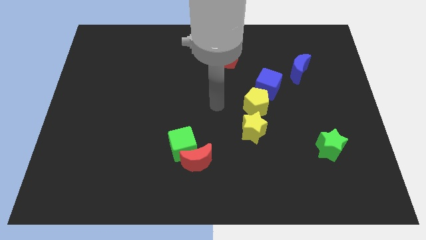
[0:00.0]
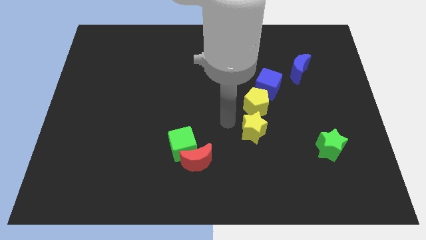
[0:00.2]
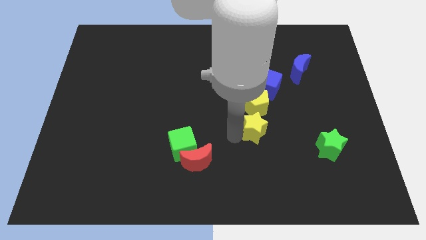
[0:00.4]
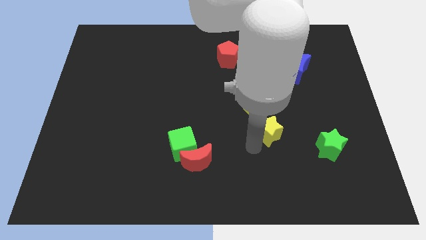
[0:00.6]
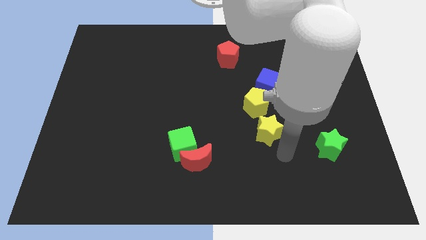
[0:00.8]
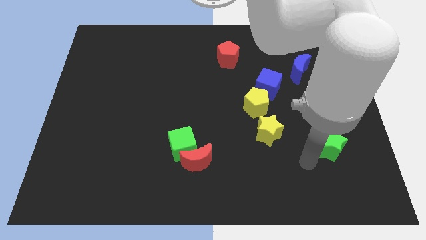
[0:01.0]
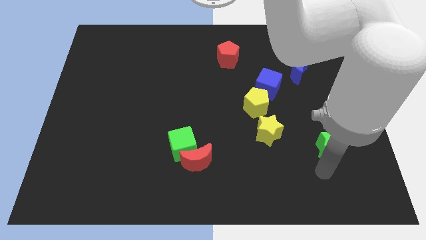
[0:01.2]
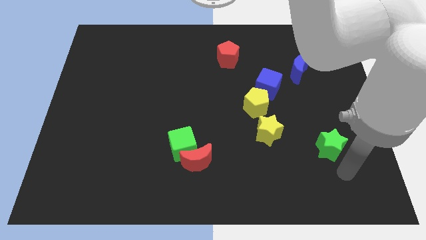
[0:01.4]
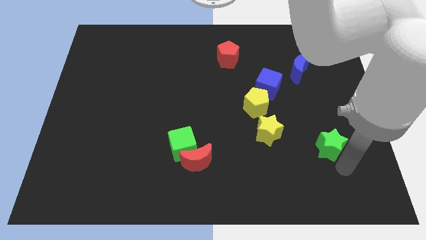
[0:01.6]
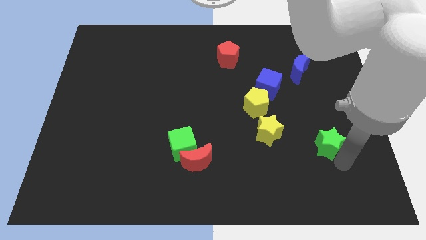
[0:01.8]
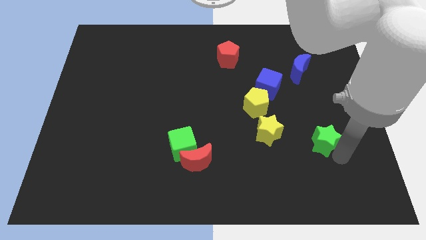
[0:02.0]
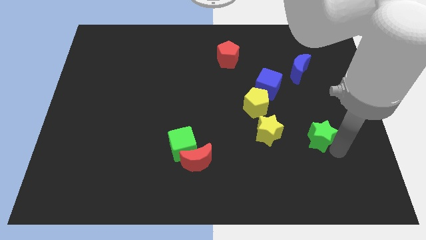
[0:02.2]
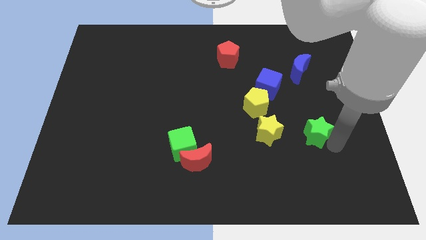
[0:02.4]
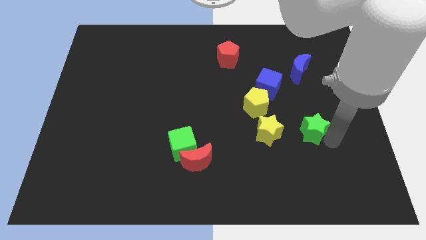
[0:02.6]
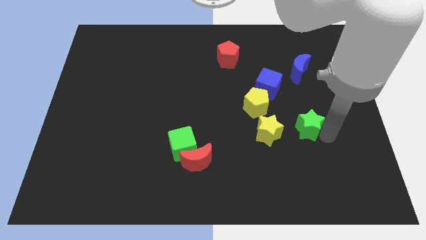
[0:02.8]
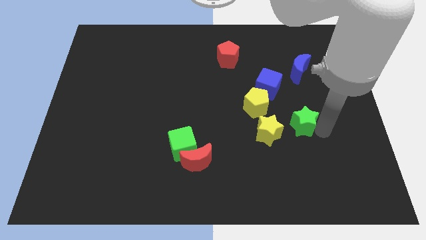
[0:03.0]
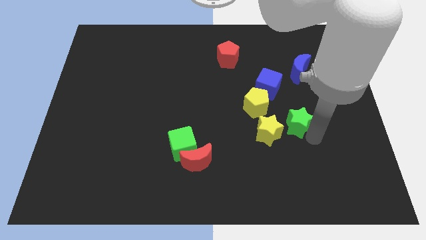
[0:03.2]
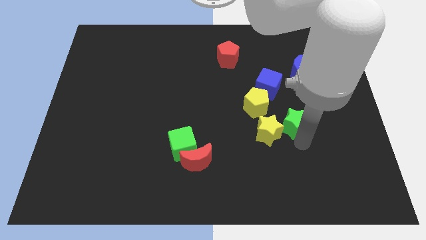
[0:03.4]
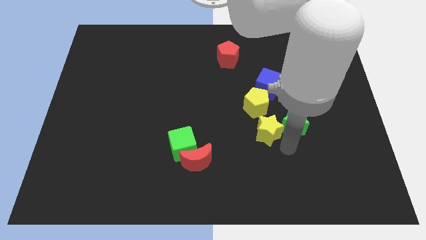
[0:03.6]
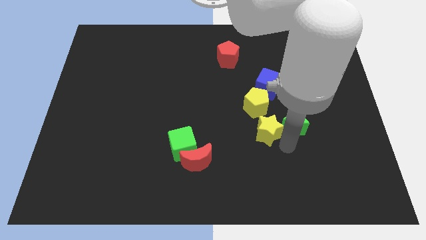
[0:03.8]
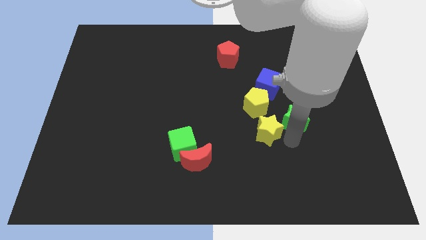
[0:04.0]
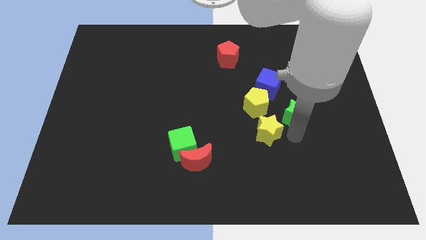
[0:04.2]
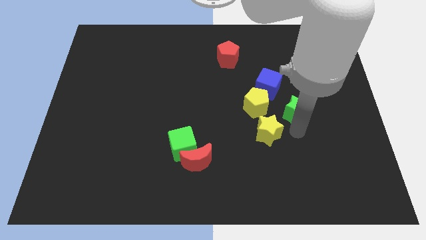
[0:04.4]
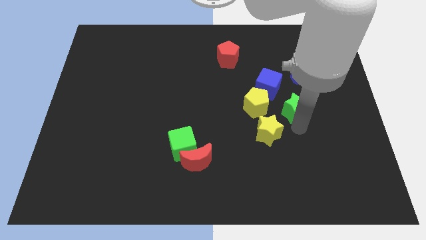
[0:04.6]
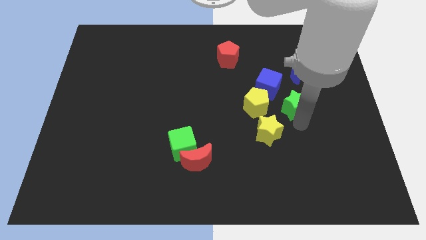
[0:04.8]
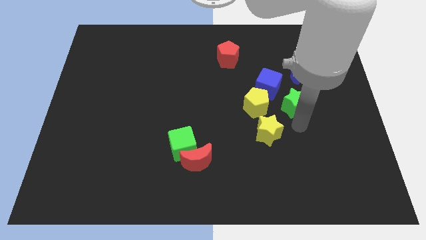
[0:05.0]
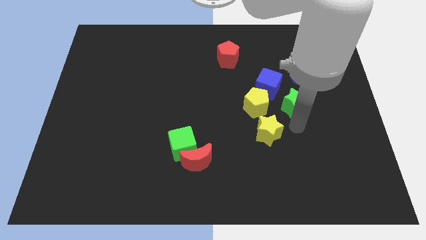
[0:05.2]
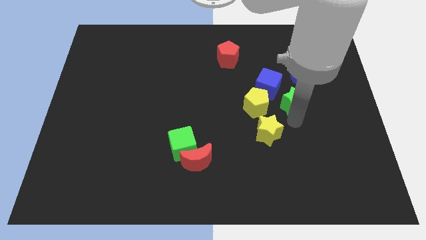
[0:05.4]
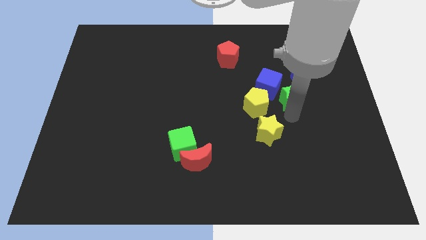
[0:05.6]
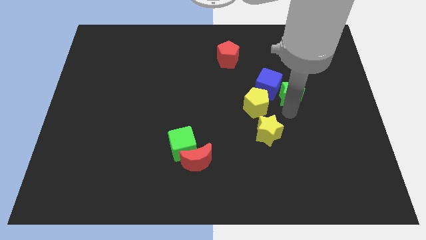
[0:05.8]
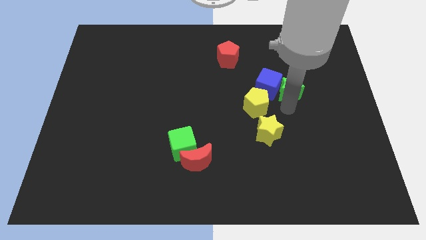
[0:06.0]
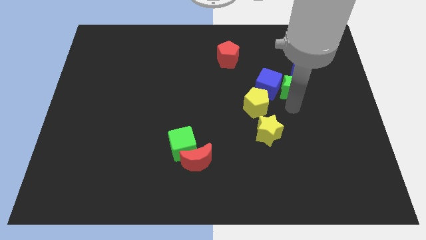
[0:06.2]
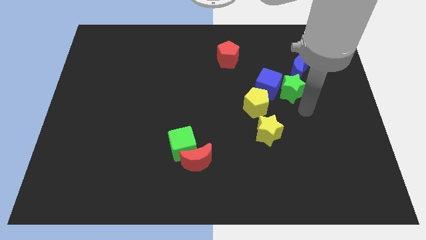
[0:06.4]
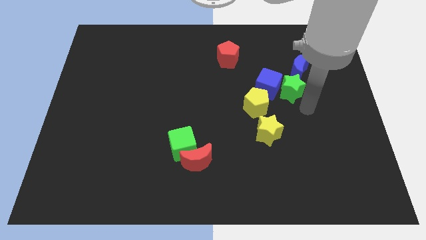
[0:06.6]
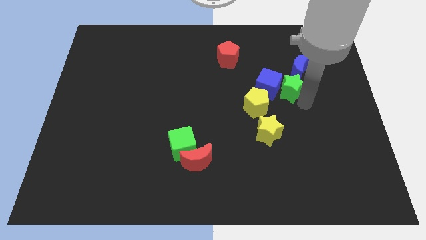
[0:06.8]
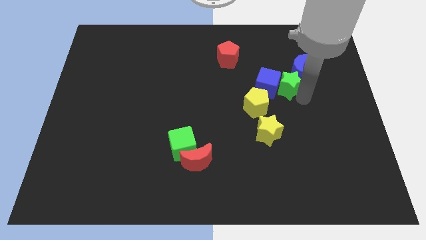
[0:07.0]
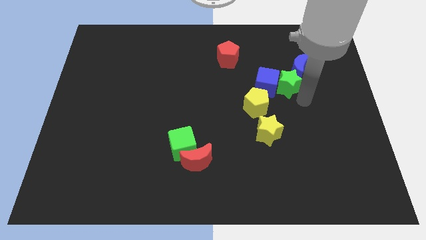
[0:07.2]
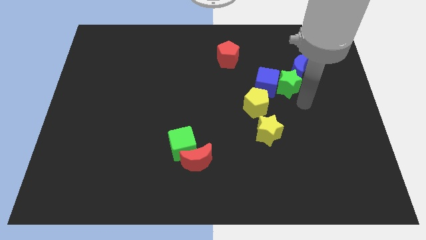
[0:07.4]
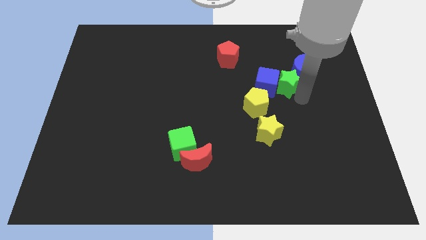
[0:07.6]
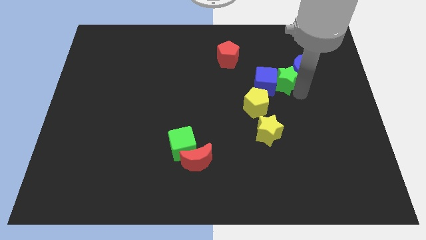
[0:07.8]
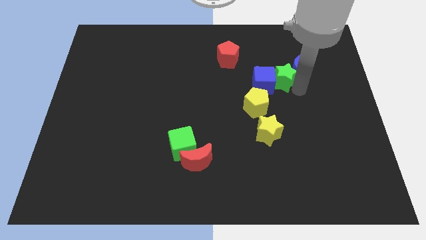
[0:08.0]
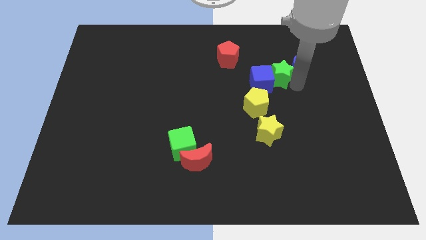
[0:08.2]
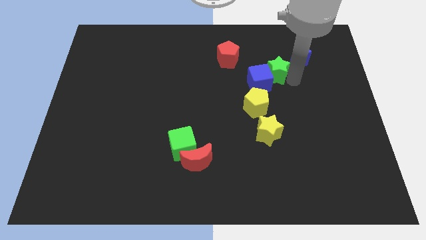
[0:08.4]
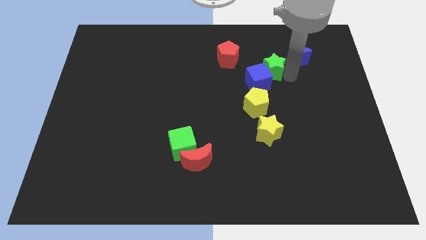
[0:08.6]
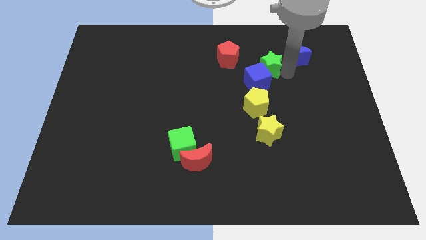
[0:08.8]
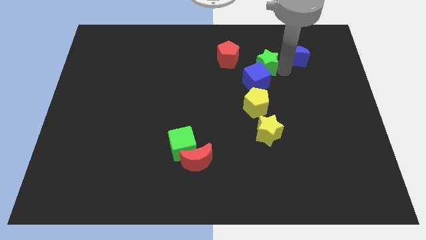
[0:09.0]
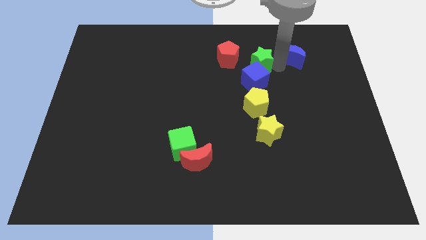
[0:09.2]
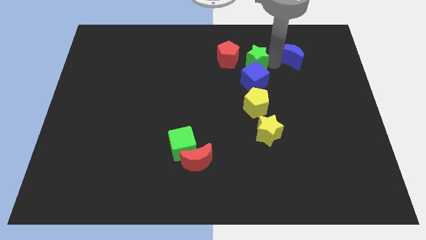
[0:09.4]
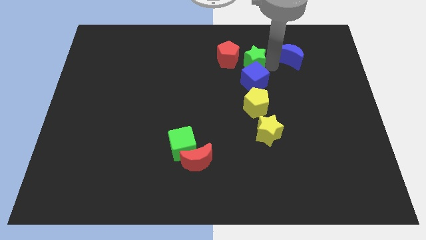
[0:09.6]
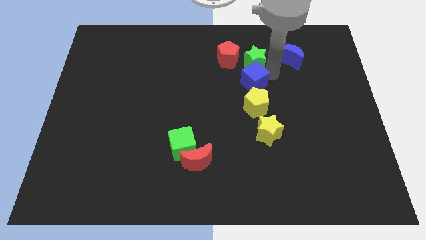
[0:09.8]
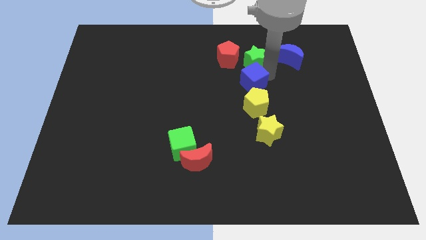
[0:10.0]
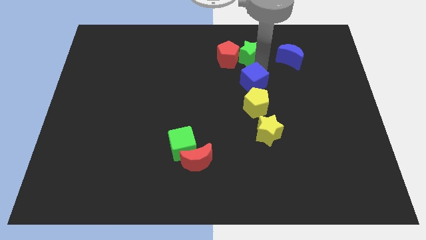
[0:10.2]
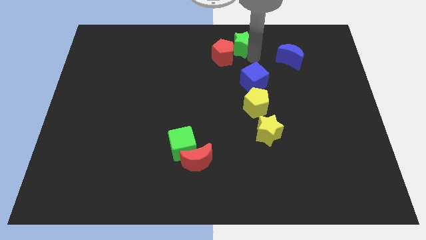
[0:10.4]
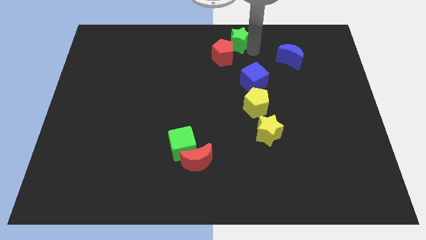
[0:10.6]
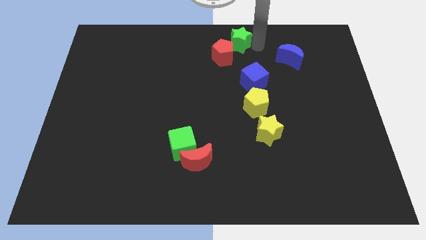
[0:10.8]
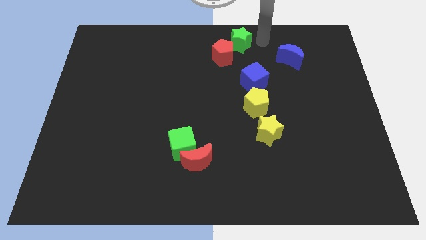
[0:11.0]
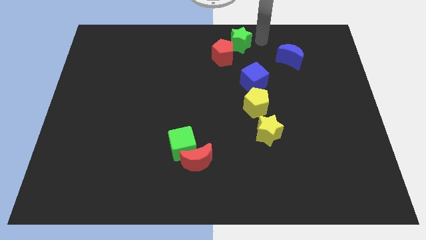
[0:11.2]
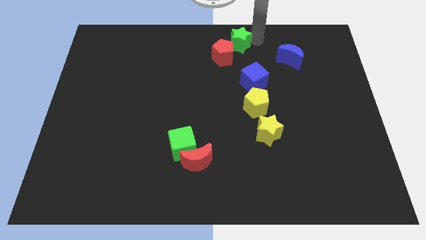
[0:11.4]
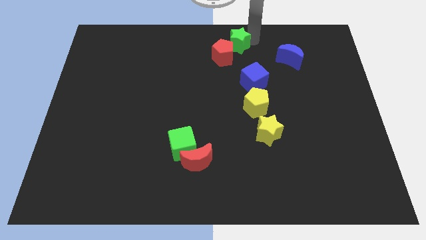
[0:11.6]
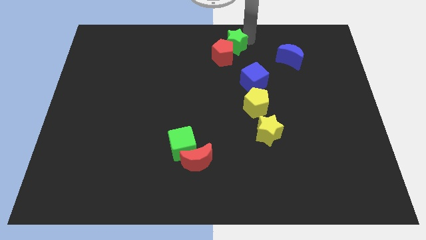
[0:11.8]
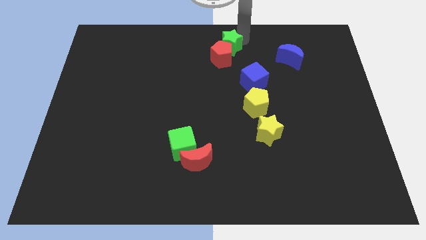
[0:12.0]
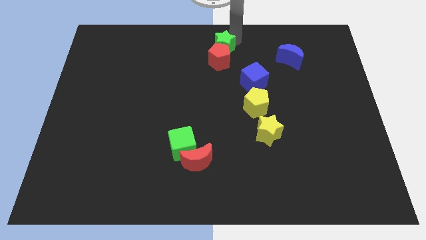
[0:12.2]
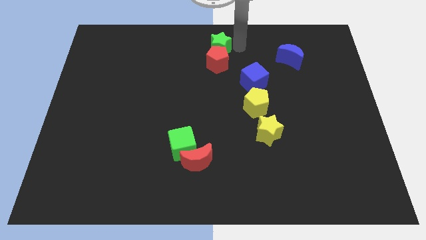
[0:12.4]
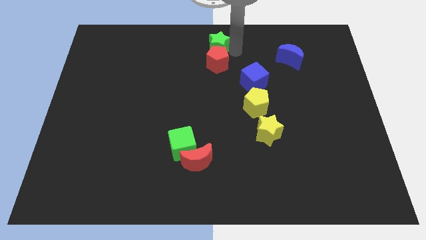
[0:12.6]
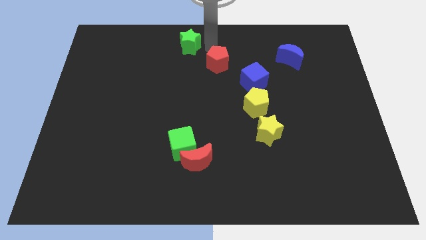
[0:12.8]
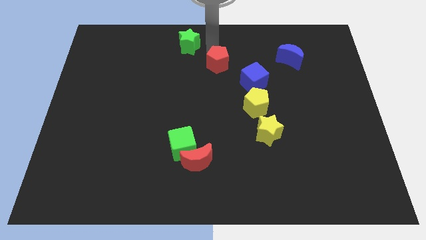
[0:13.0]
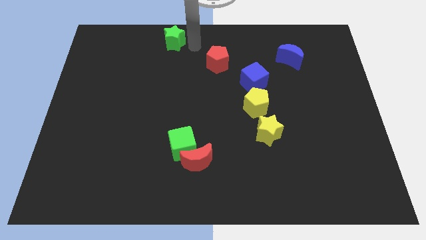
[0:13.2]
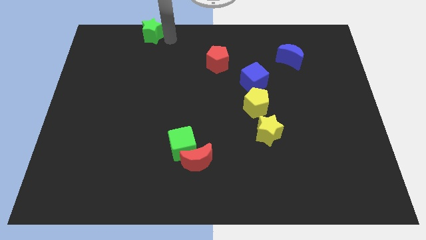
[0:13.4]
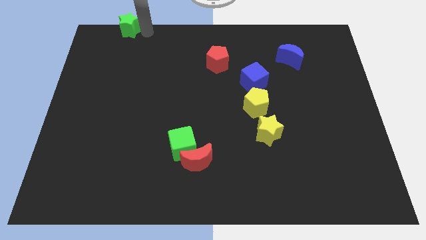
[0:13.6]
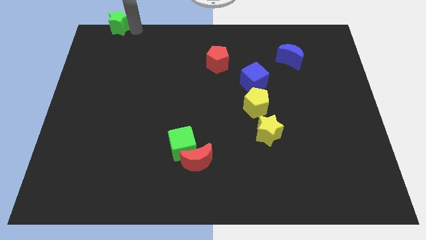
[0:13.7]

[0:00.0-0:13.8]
put the green star to the upper left corner
